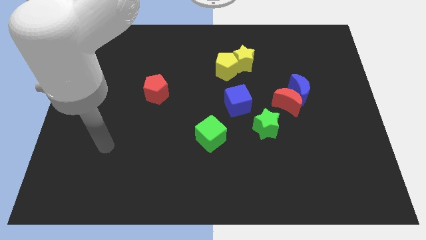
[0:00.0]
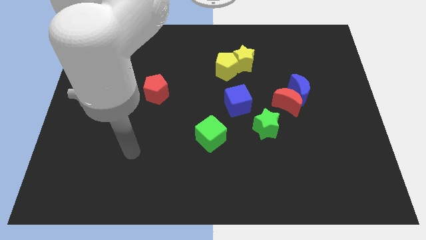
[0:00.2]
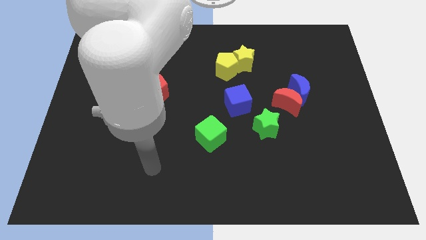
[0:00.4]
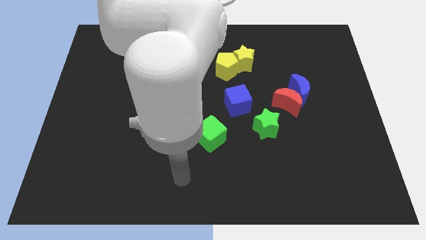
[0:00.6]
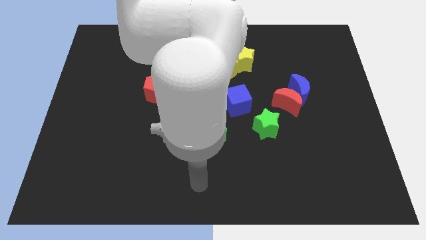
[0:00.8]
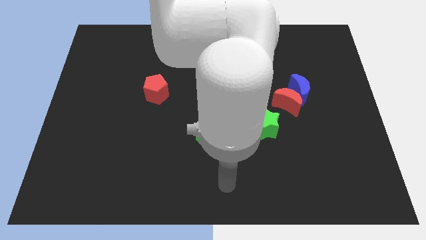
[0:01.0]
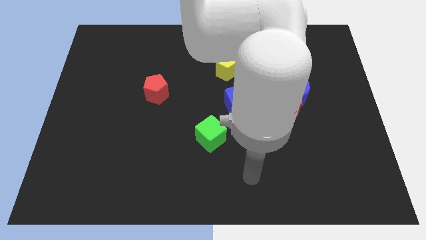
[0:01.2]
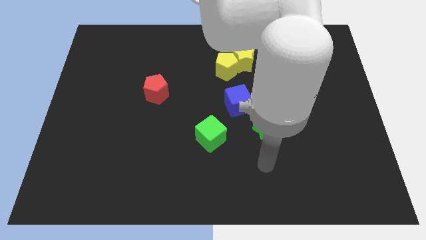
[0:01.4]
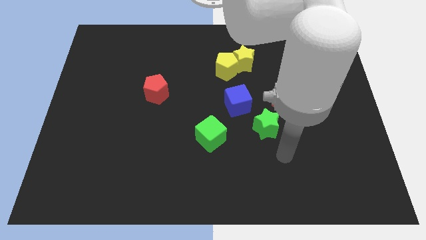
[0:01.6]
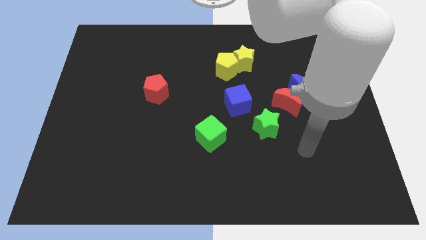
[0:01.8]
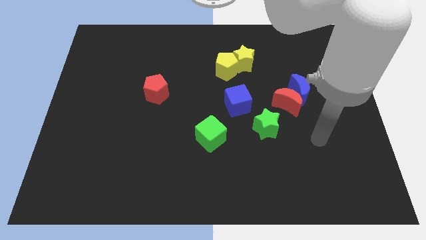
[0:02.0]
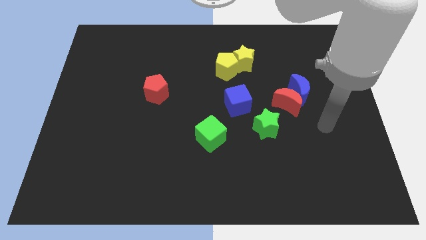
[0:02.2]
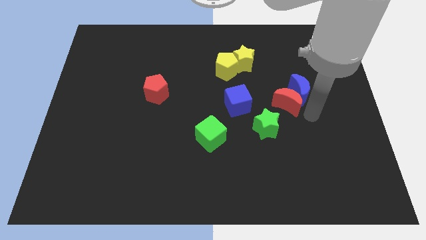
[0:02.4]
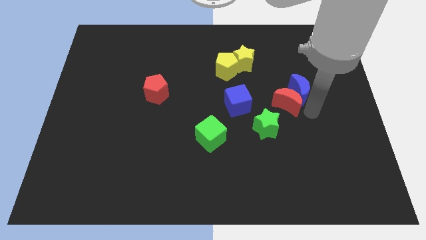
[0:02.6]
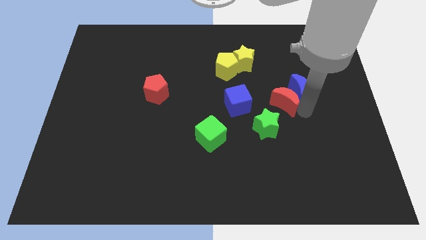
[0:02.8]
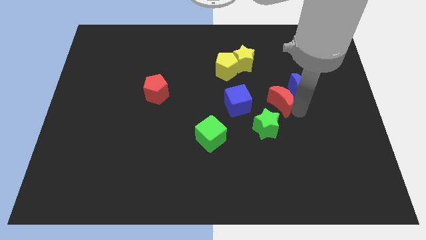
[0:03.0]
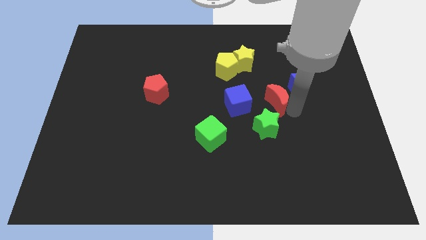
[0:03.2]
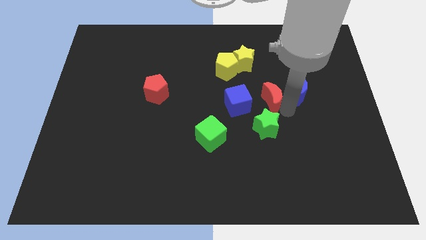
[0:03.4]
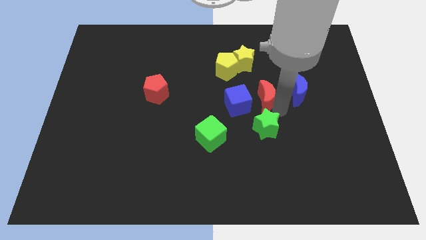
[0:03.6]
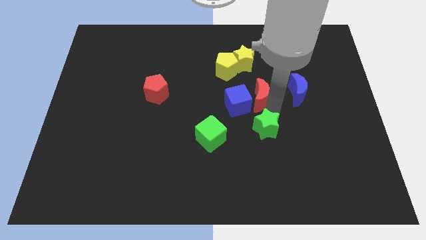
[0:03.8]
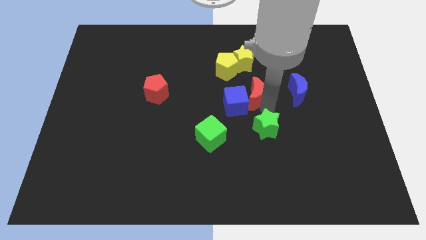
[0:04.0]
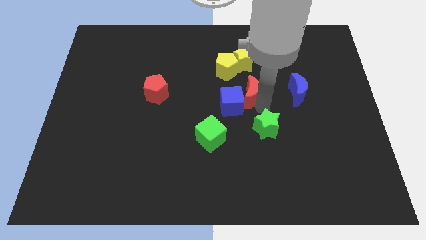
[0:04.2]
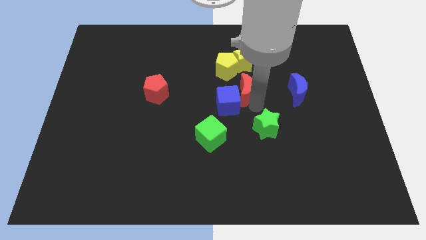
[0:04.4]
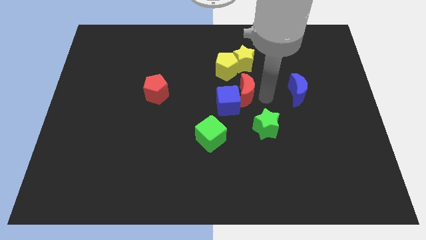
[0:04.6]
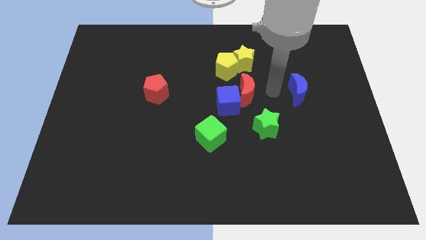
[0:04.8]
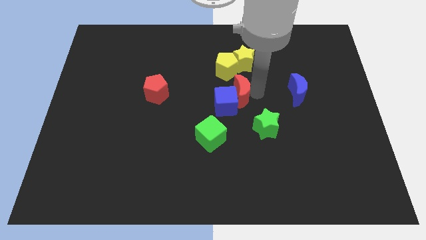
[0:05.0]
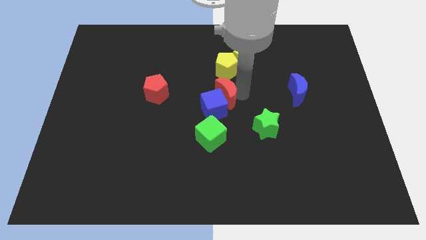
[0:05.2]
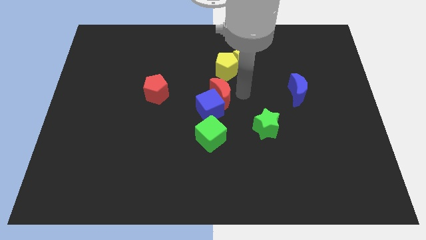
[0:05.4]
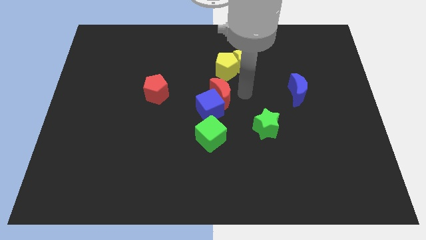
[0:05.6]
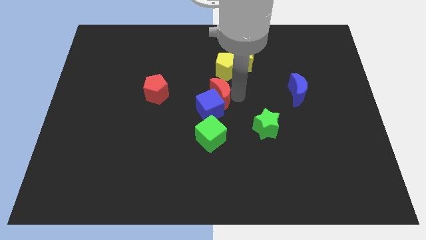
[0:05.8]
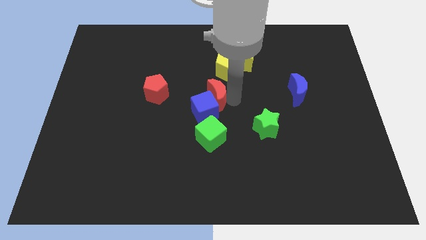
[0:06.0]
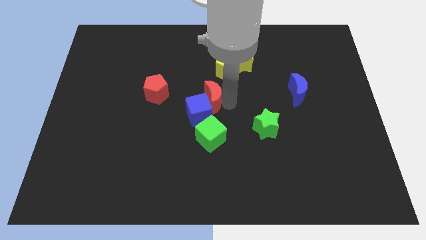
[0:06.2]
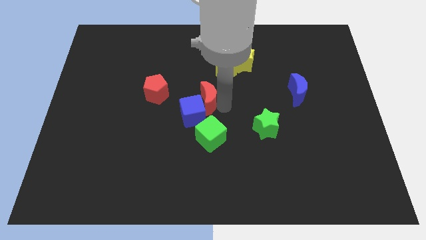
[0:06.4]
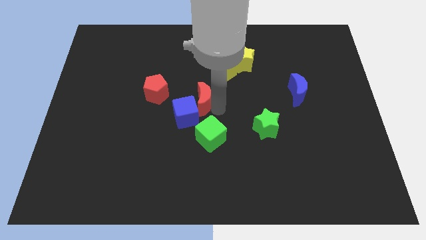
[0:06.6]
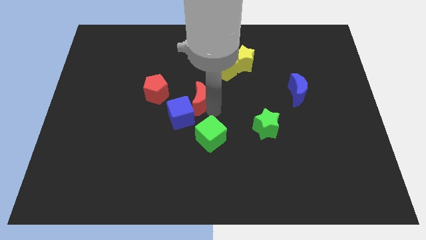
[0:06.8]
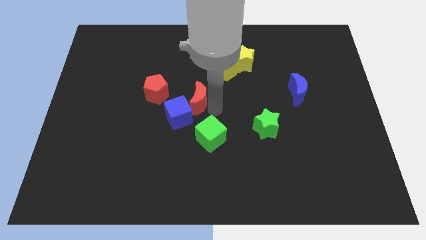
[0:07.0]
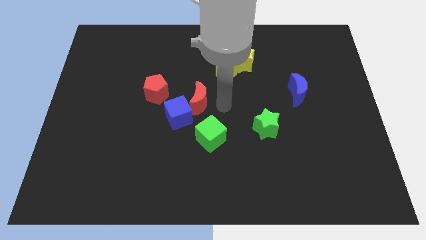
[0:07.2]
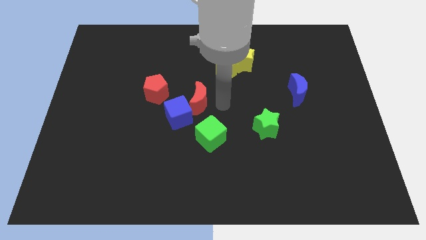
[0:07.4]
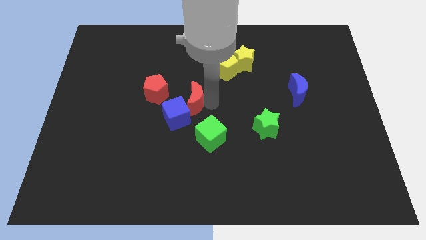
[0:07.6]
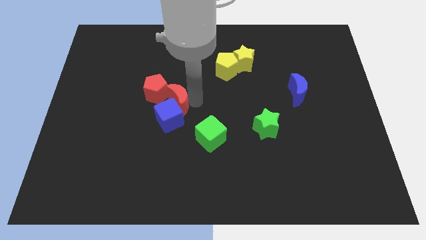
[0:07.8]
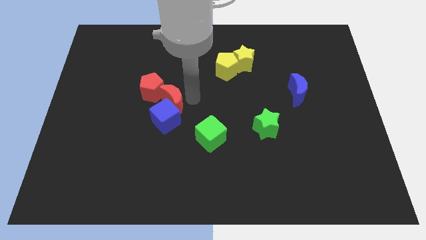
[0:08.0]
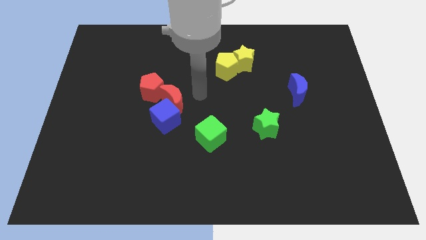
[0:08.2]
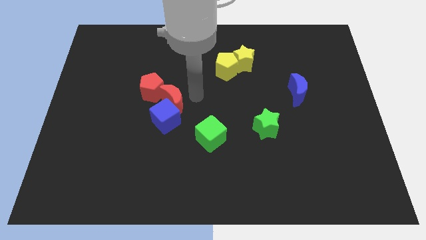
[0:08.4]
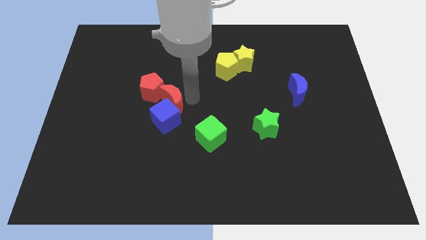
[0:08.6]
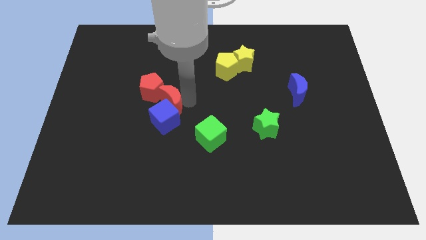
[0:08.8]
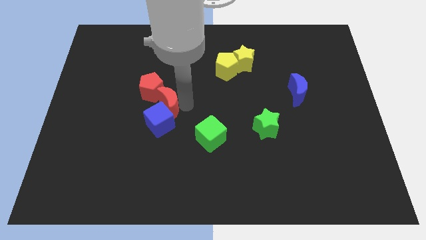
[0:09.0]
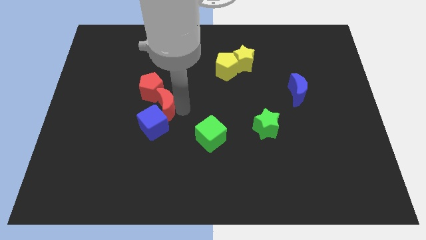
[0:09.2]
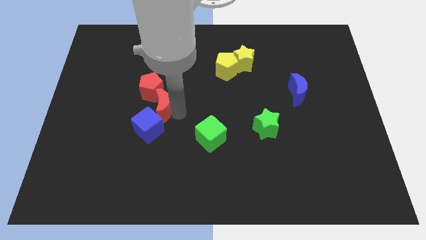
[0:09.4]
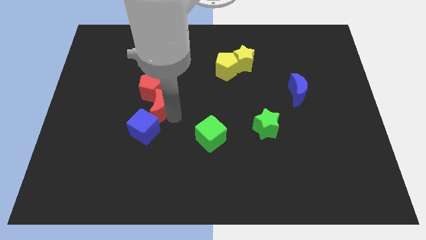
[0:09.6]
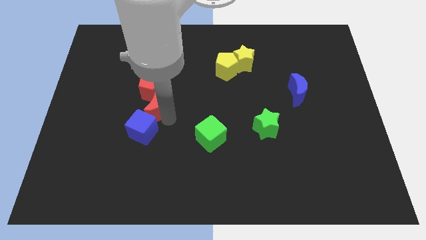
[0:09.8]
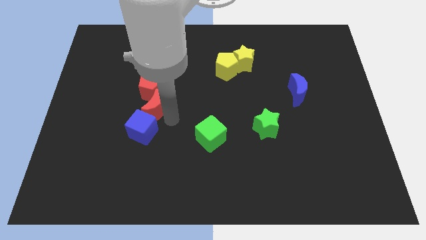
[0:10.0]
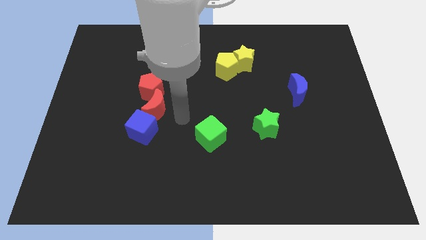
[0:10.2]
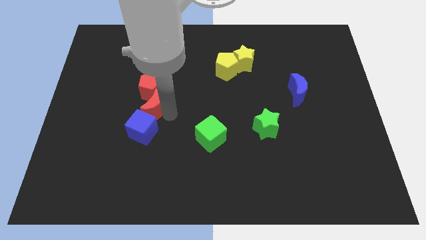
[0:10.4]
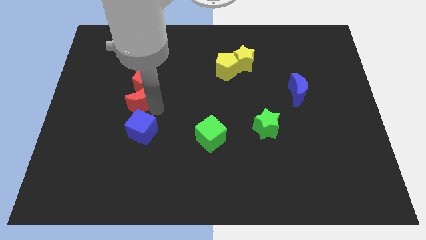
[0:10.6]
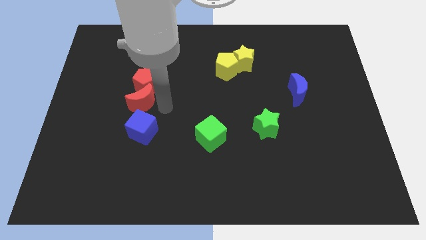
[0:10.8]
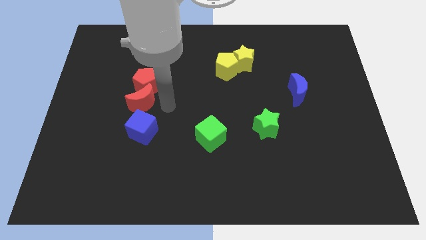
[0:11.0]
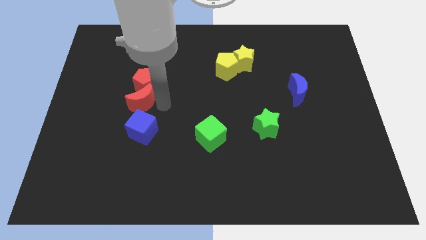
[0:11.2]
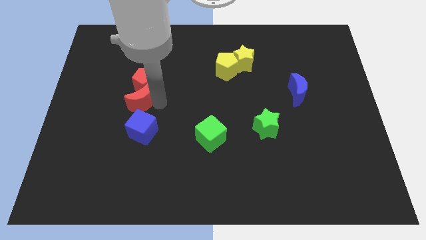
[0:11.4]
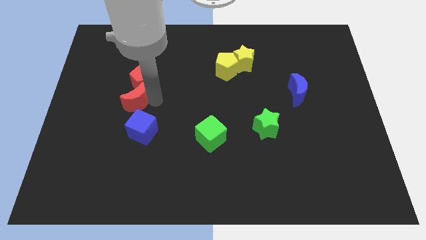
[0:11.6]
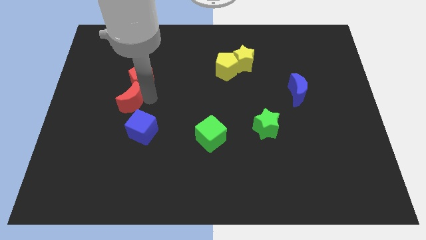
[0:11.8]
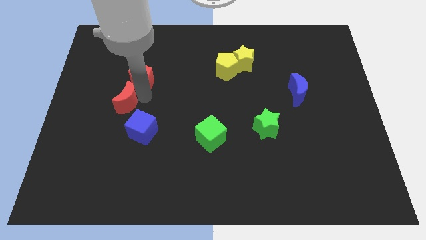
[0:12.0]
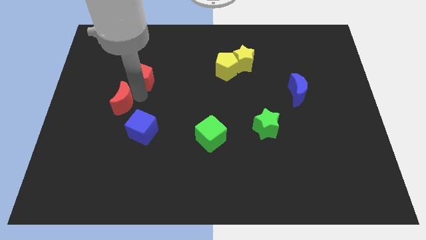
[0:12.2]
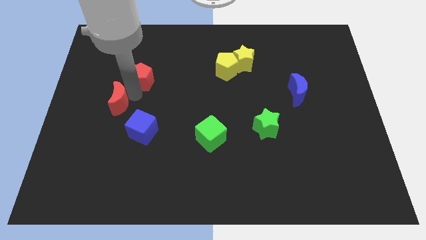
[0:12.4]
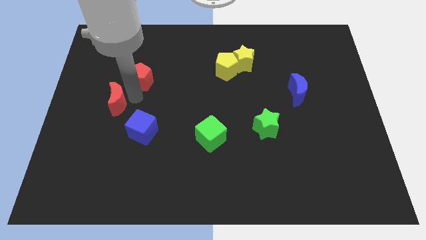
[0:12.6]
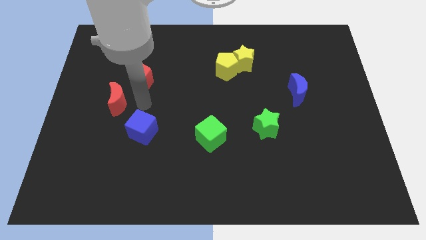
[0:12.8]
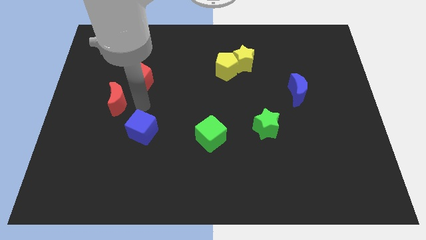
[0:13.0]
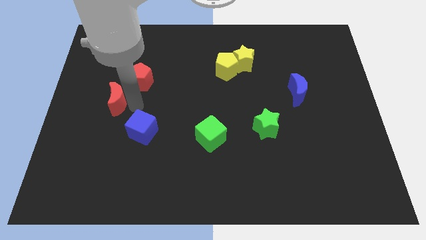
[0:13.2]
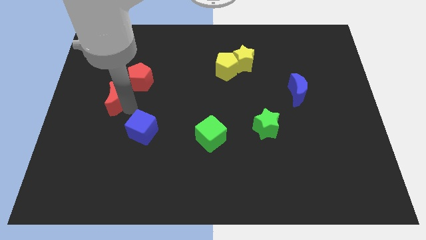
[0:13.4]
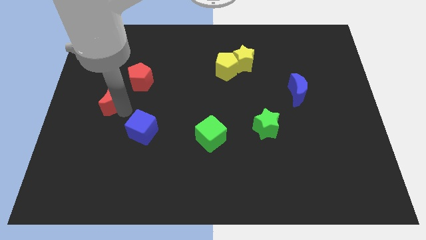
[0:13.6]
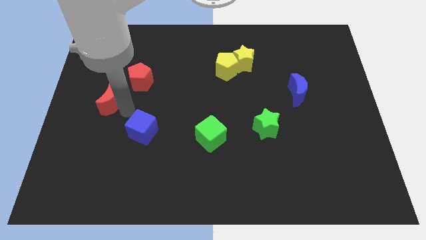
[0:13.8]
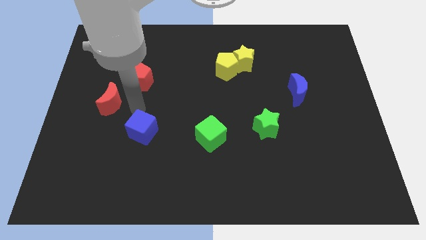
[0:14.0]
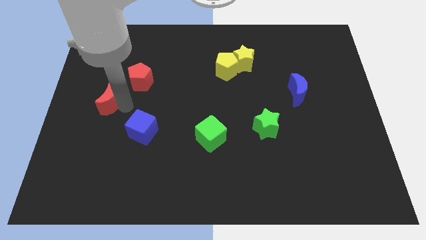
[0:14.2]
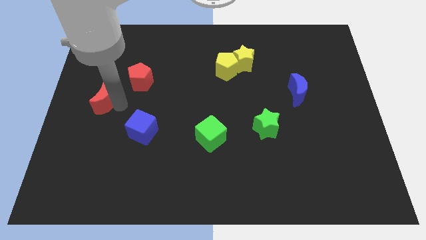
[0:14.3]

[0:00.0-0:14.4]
slide the red moon to the center left

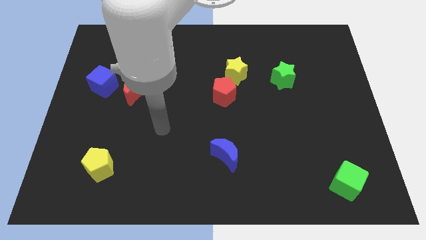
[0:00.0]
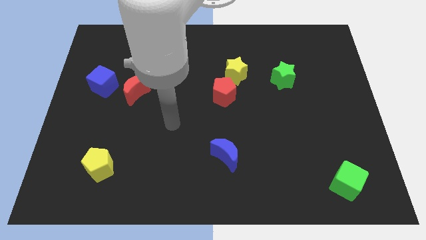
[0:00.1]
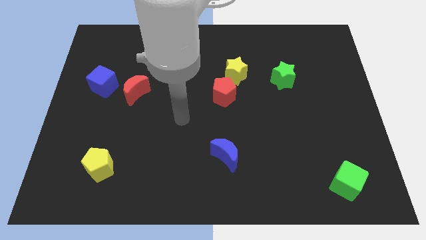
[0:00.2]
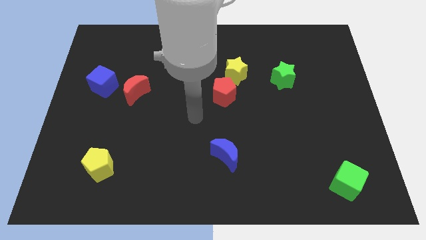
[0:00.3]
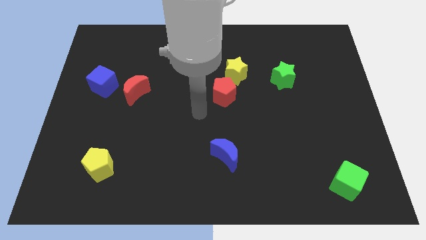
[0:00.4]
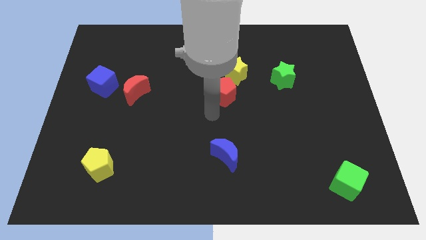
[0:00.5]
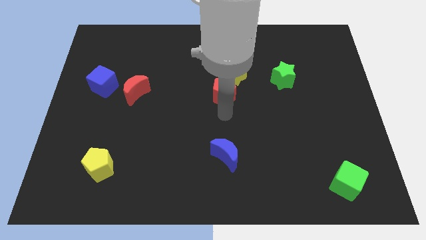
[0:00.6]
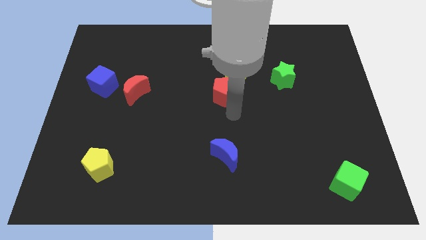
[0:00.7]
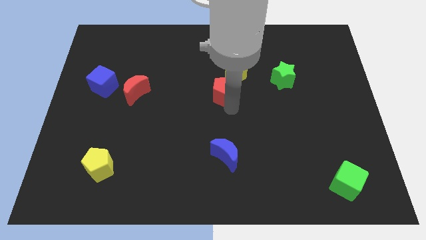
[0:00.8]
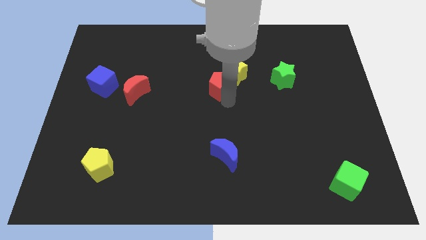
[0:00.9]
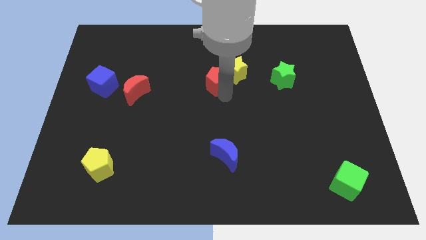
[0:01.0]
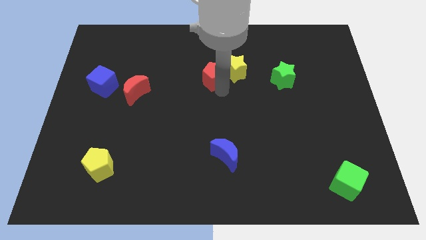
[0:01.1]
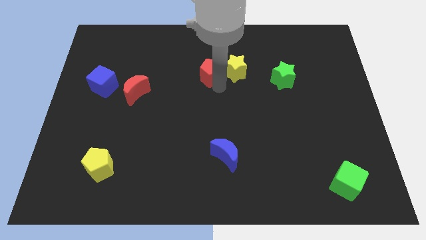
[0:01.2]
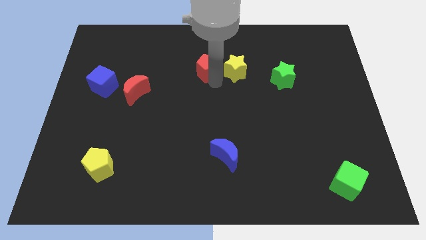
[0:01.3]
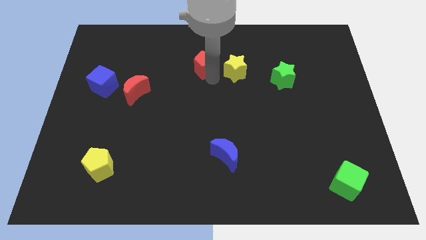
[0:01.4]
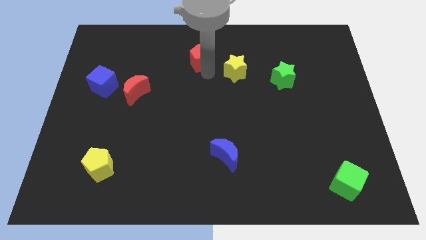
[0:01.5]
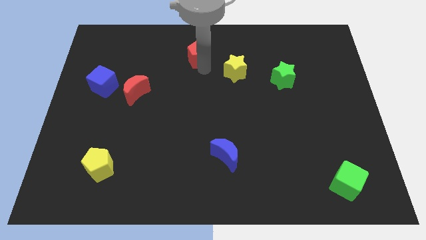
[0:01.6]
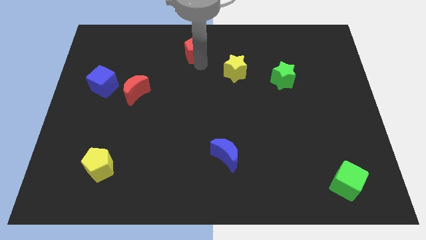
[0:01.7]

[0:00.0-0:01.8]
push the red pentagon to the towards your base
